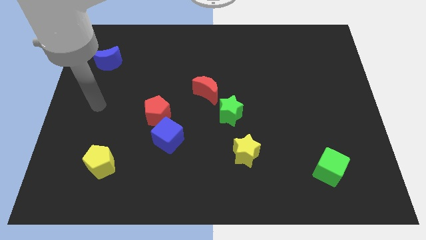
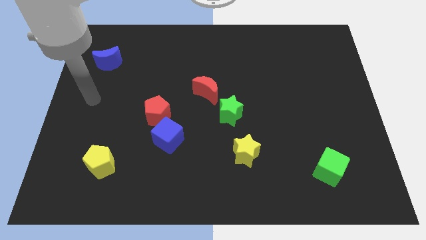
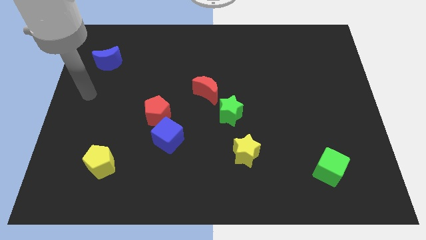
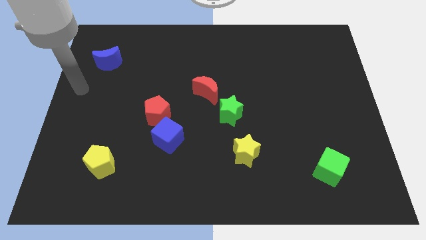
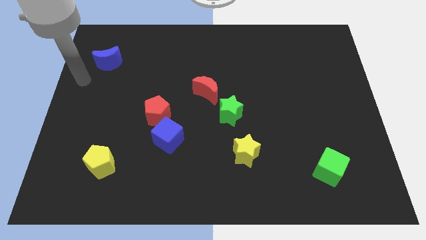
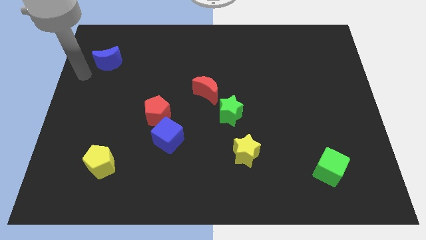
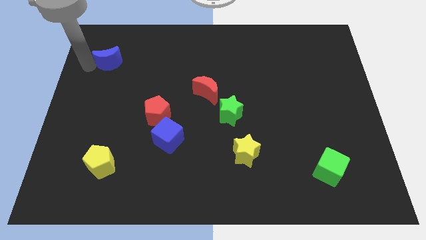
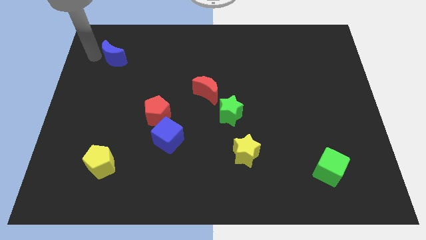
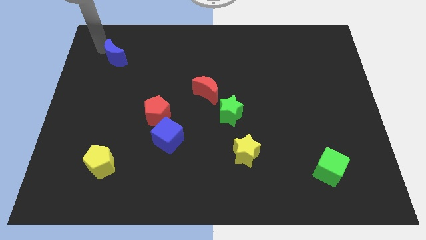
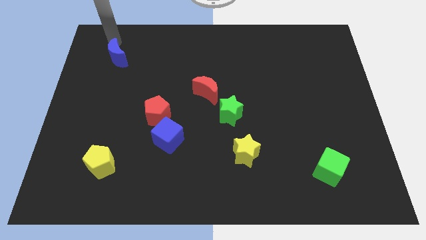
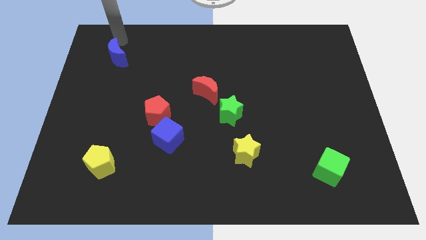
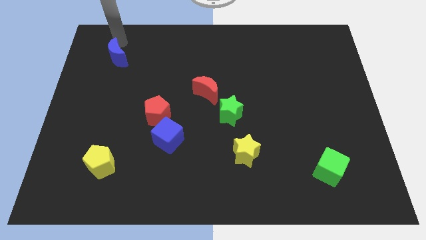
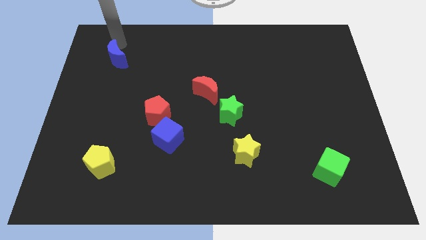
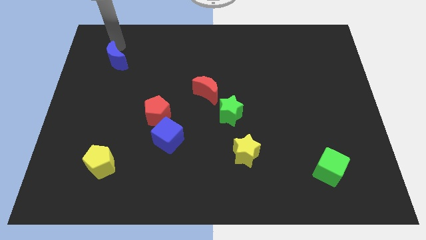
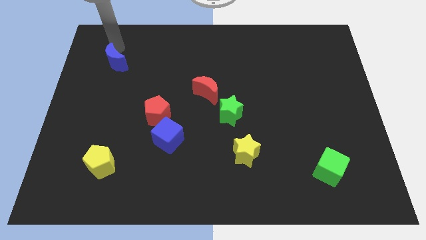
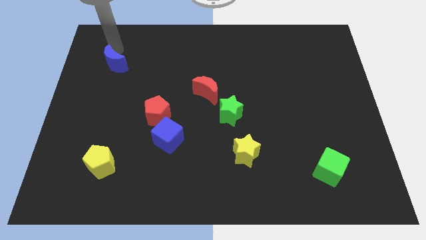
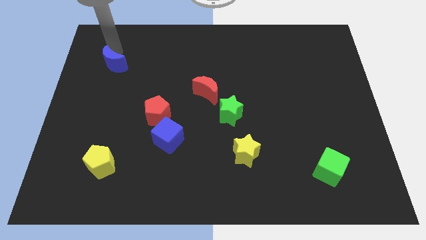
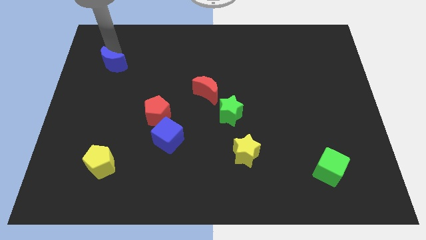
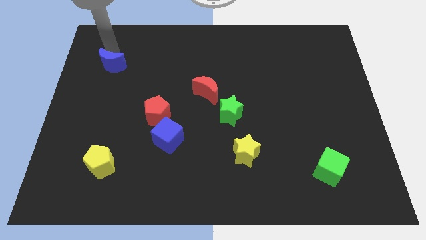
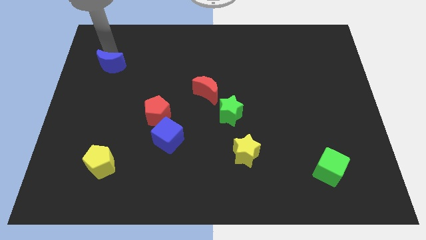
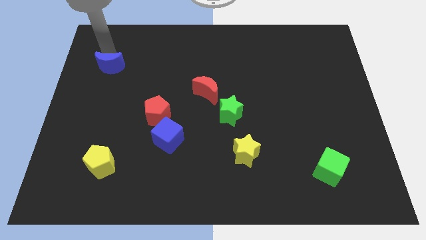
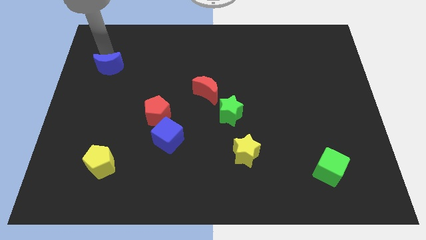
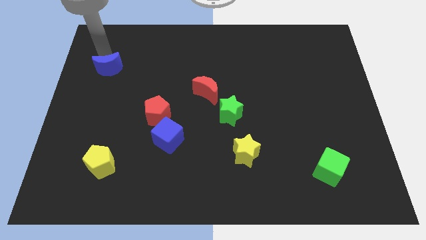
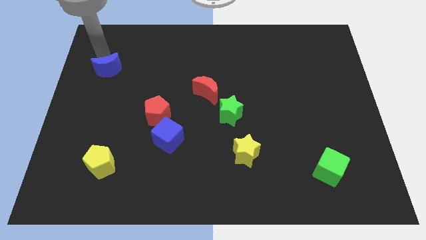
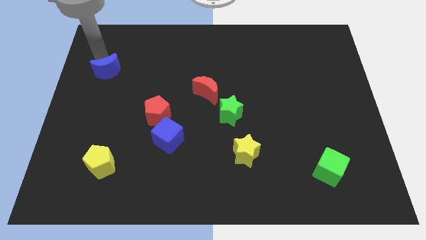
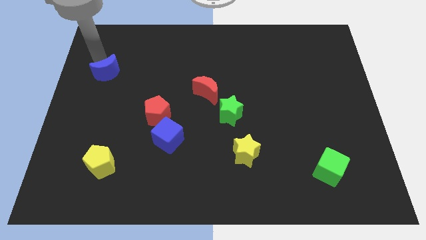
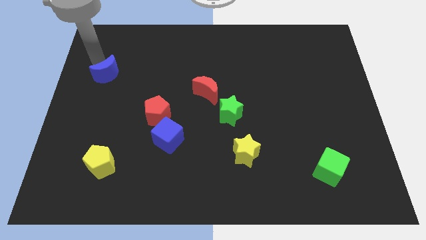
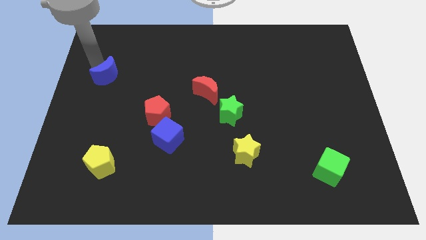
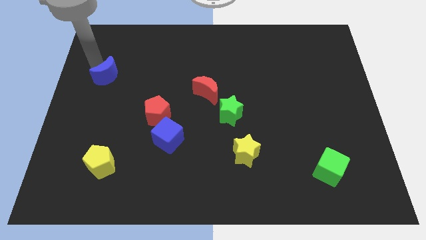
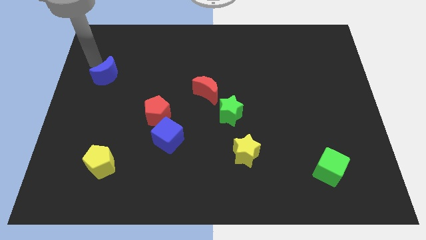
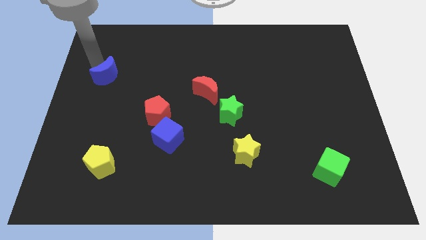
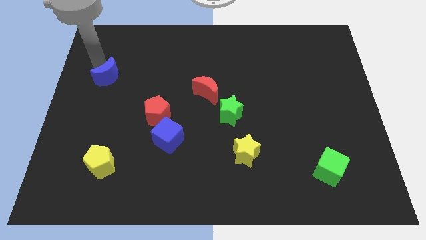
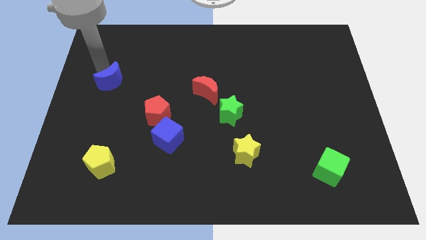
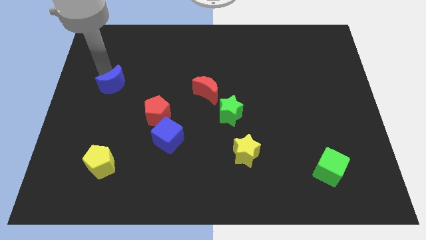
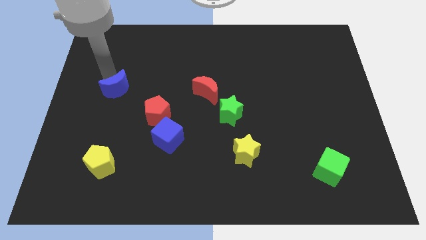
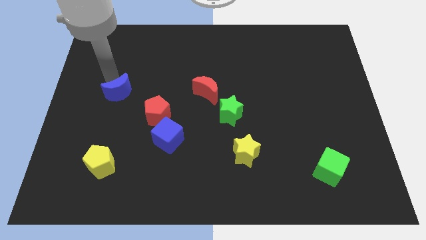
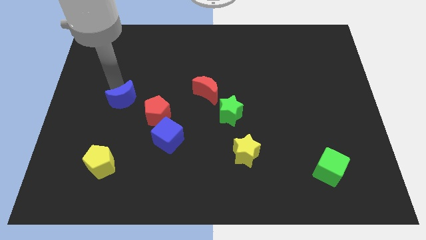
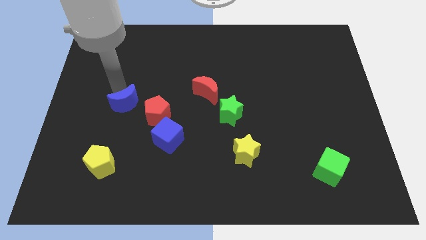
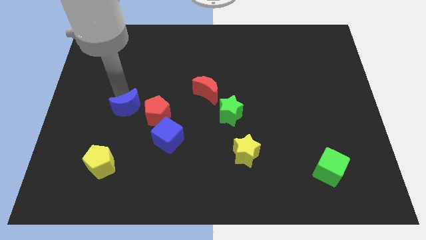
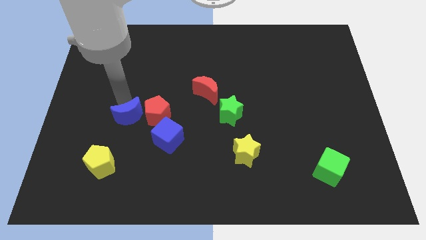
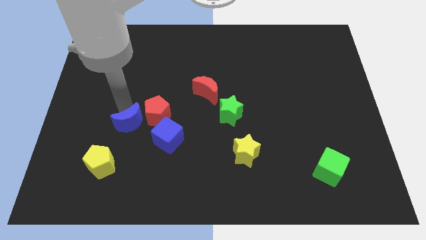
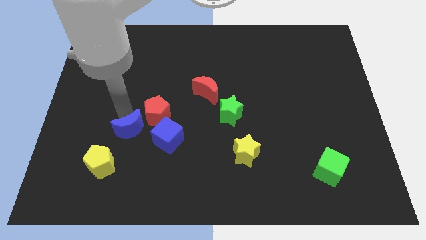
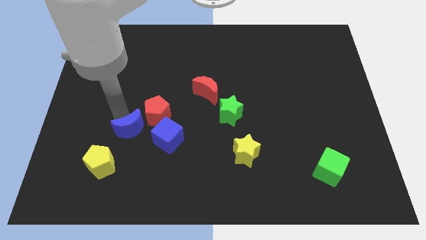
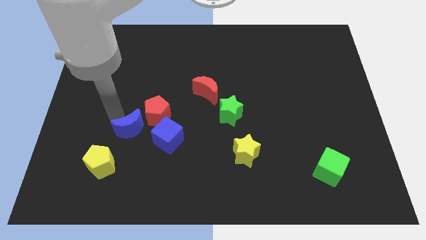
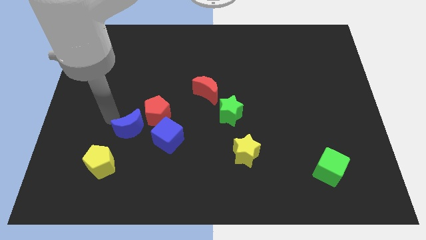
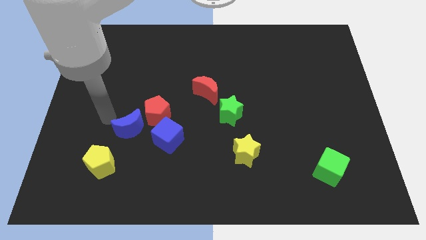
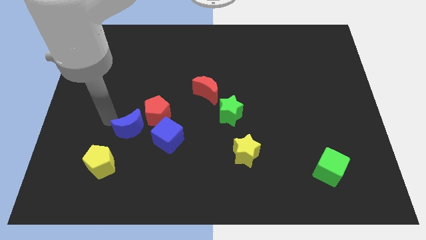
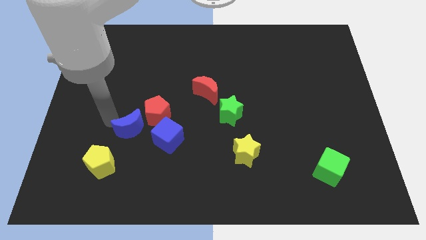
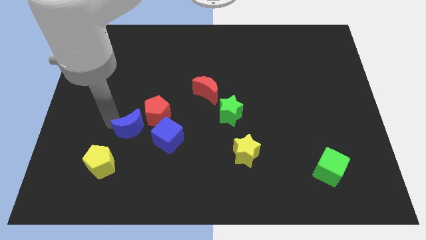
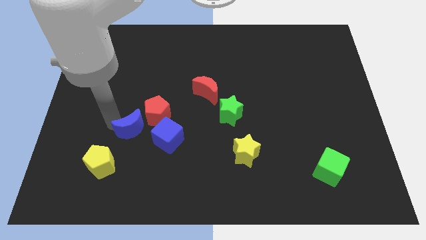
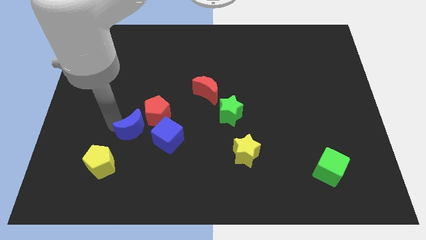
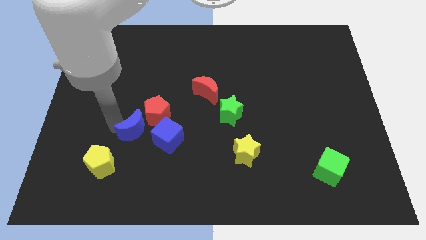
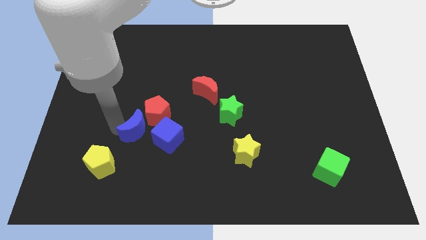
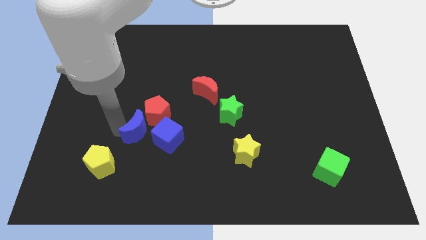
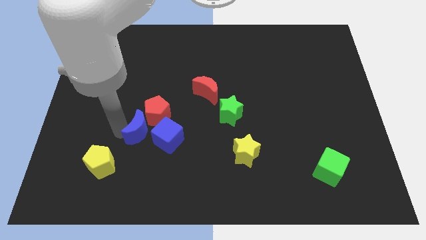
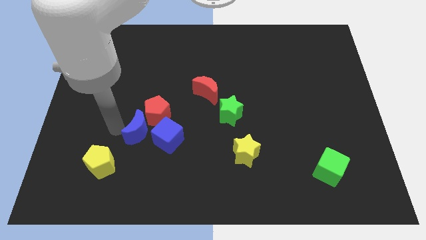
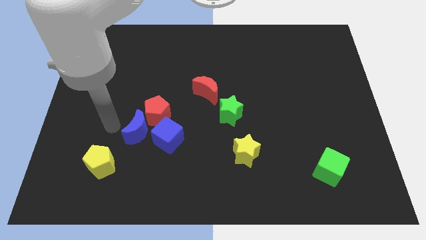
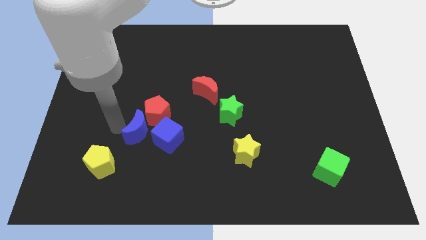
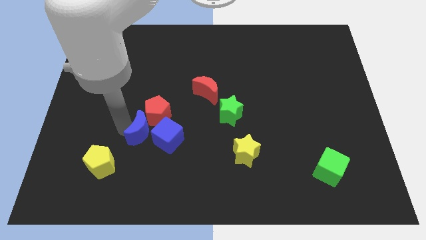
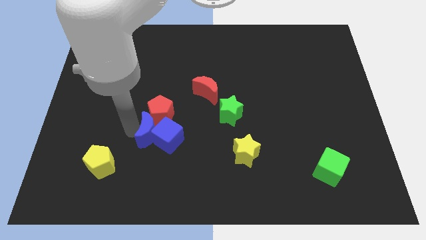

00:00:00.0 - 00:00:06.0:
put the blue moon towards the blue cube
